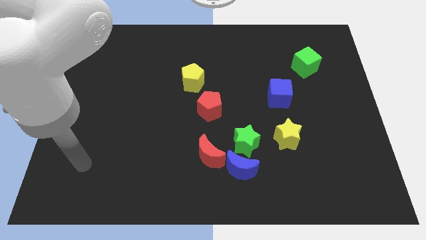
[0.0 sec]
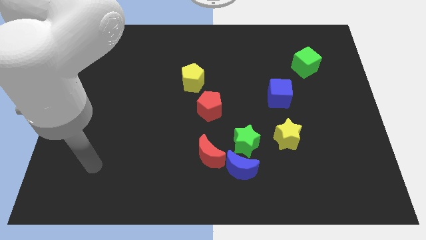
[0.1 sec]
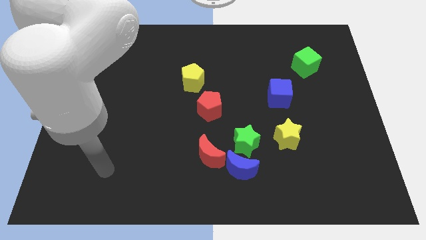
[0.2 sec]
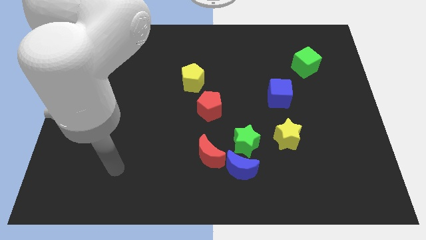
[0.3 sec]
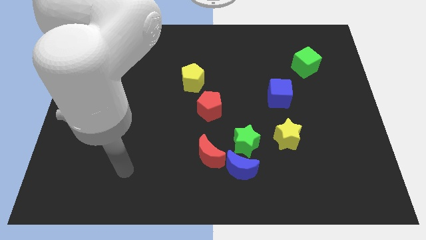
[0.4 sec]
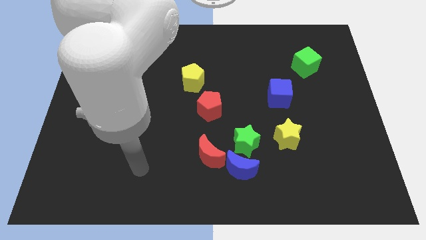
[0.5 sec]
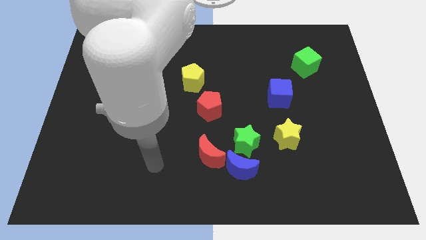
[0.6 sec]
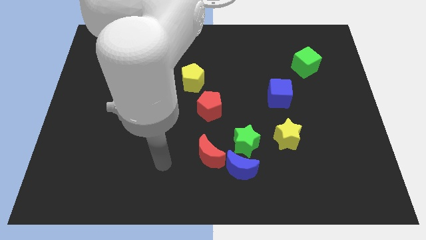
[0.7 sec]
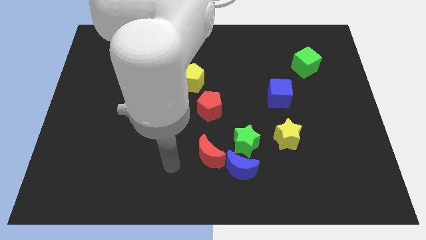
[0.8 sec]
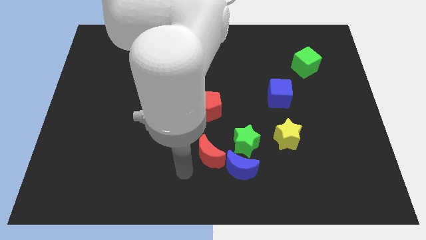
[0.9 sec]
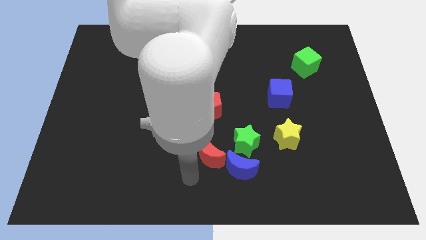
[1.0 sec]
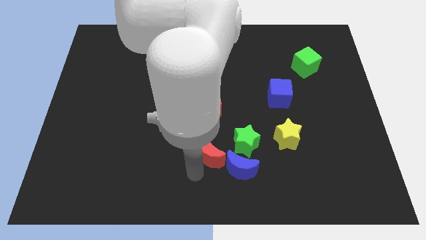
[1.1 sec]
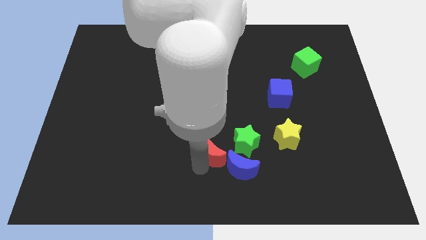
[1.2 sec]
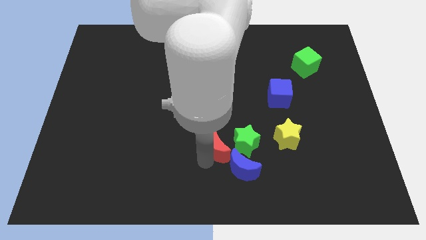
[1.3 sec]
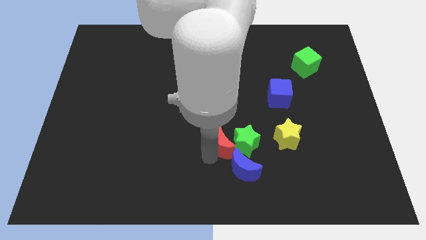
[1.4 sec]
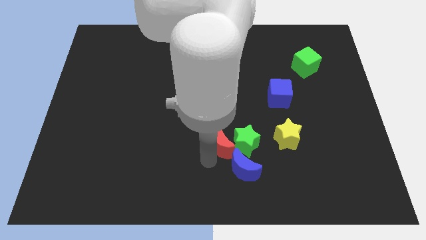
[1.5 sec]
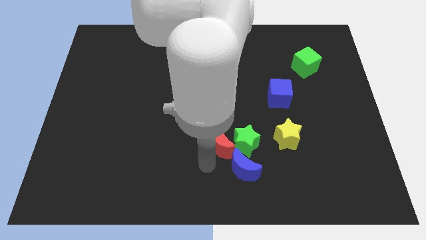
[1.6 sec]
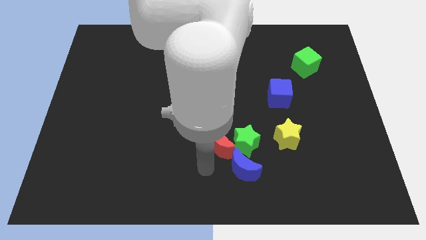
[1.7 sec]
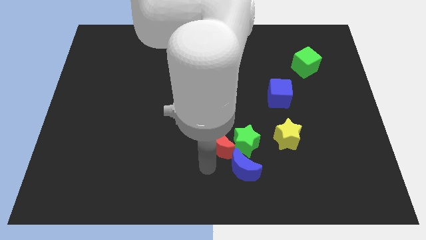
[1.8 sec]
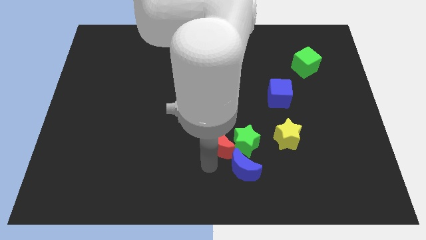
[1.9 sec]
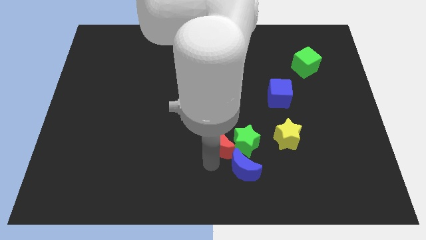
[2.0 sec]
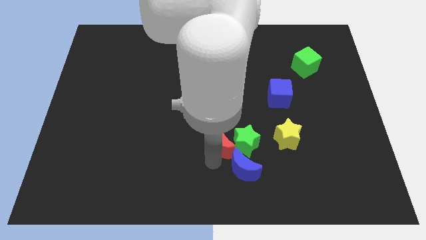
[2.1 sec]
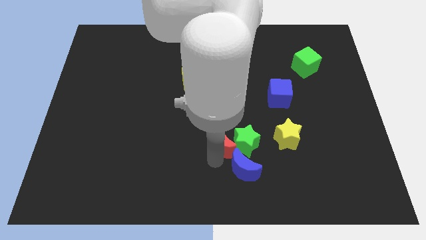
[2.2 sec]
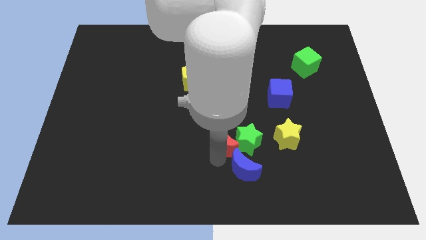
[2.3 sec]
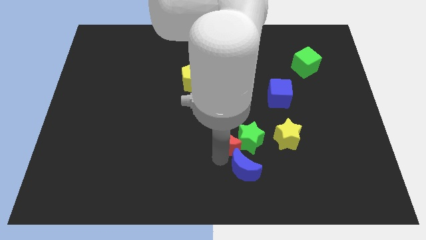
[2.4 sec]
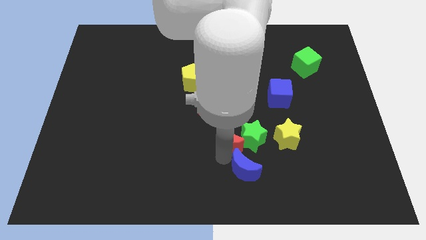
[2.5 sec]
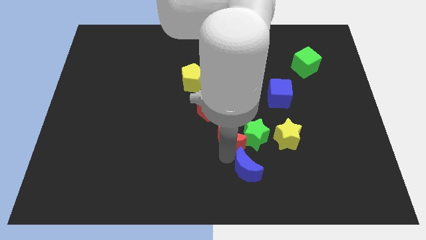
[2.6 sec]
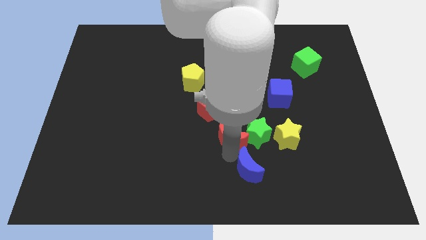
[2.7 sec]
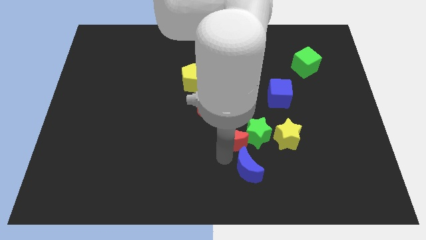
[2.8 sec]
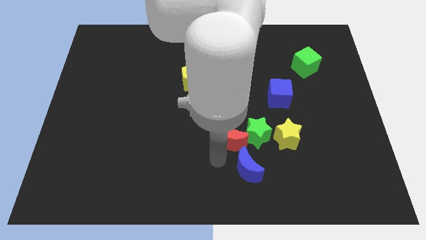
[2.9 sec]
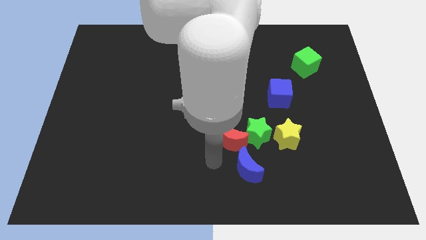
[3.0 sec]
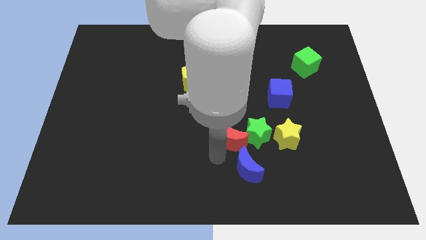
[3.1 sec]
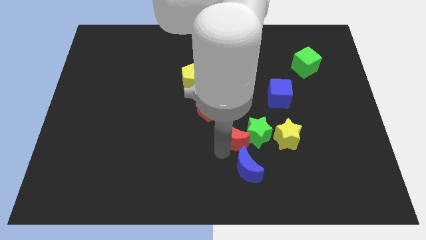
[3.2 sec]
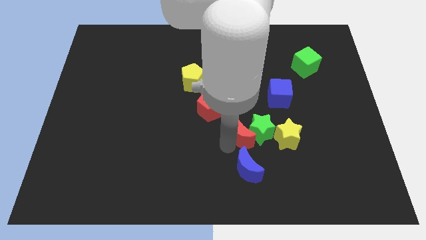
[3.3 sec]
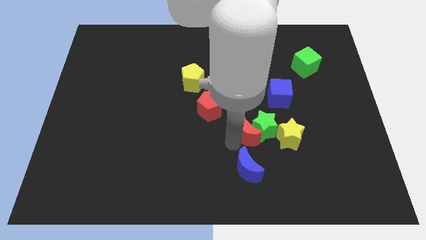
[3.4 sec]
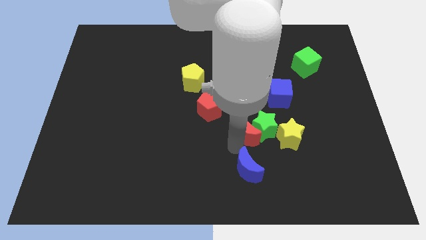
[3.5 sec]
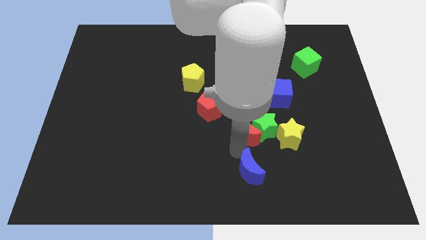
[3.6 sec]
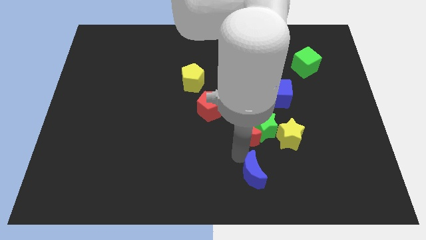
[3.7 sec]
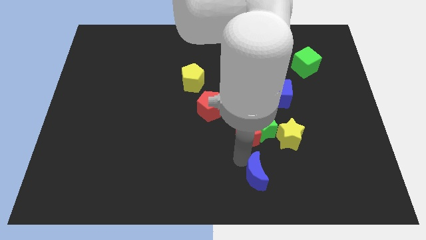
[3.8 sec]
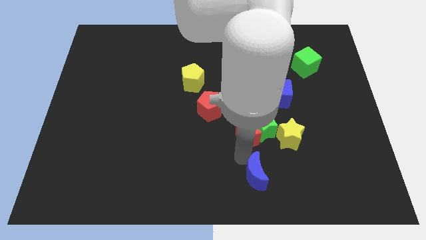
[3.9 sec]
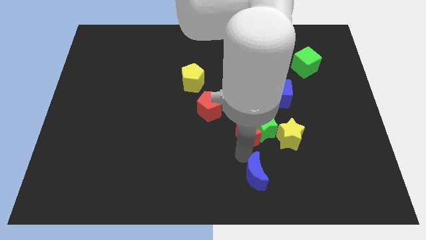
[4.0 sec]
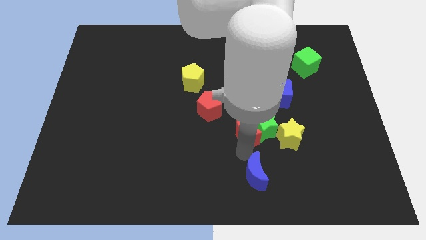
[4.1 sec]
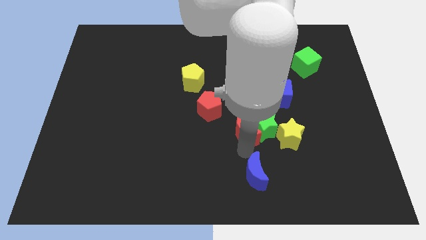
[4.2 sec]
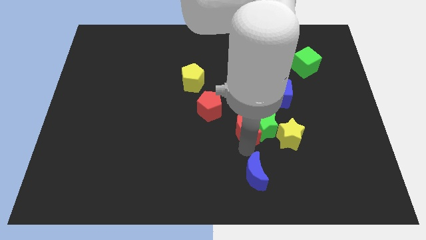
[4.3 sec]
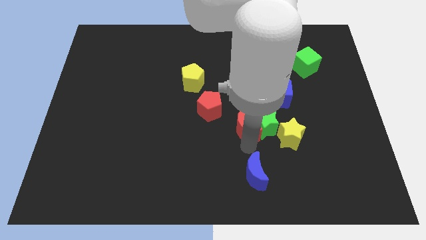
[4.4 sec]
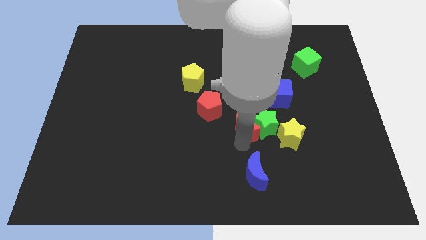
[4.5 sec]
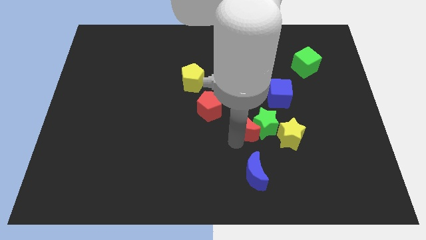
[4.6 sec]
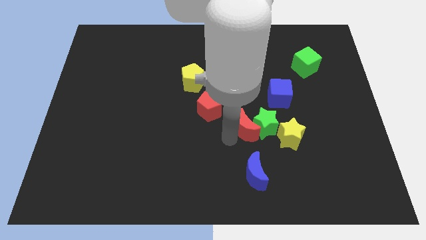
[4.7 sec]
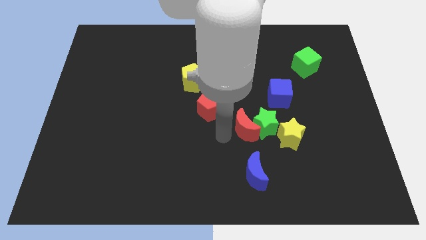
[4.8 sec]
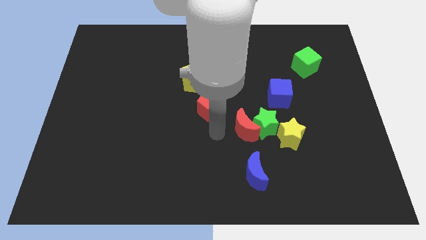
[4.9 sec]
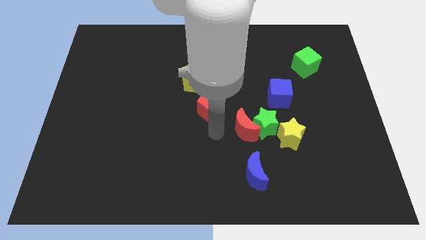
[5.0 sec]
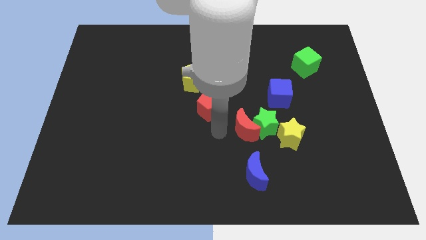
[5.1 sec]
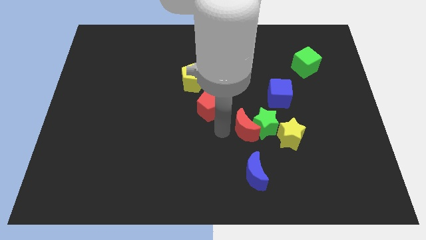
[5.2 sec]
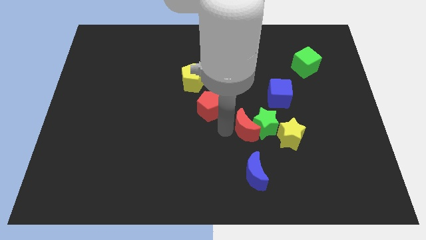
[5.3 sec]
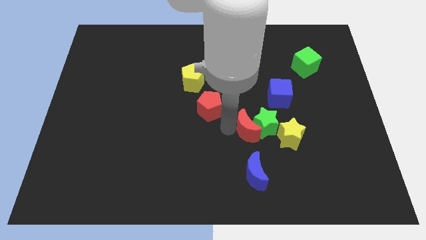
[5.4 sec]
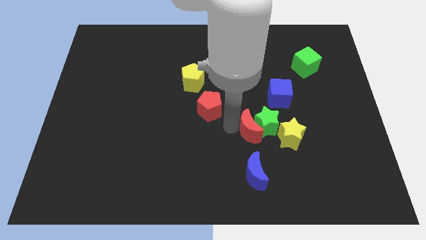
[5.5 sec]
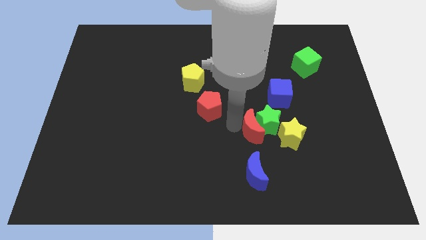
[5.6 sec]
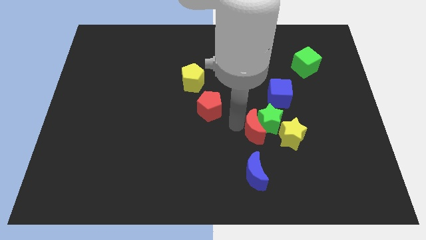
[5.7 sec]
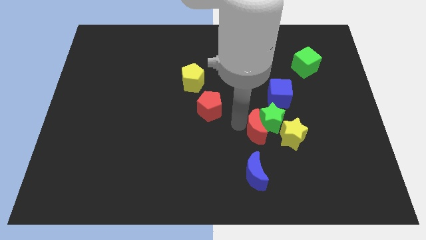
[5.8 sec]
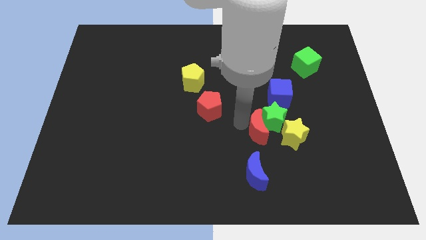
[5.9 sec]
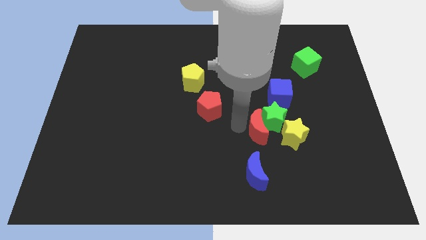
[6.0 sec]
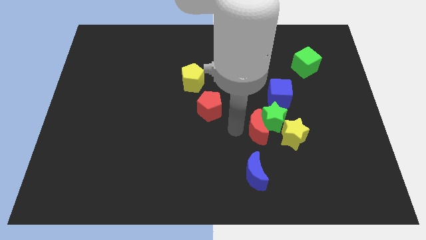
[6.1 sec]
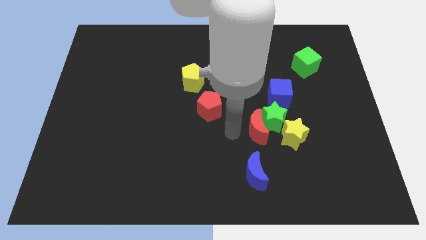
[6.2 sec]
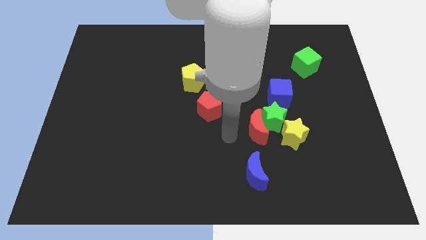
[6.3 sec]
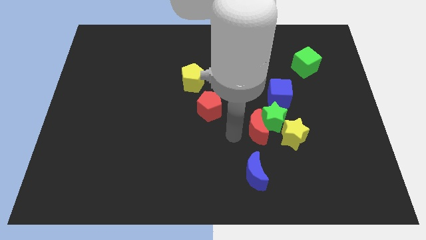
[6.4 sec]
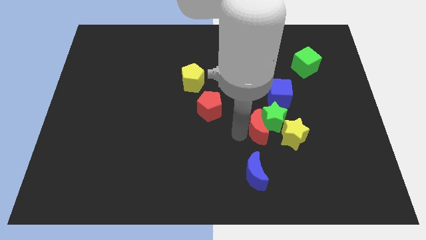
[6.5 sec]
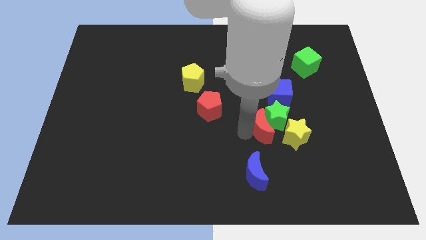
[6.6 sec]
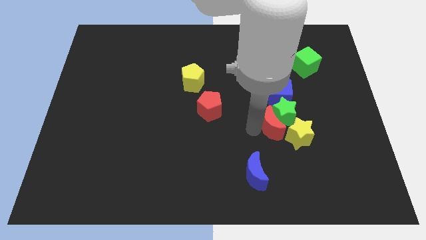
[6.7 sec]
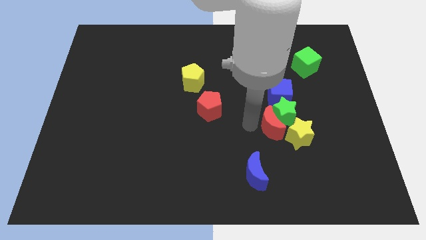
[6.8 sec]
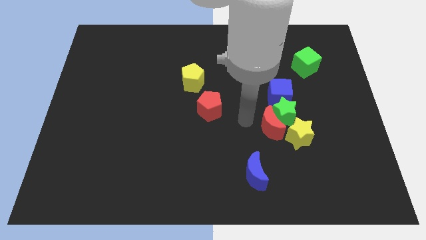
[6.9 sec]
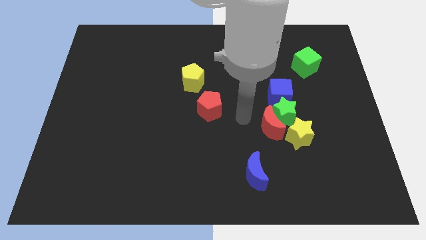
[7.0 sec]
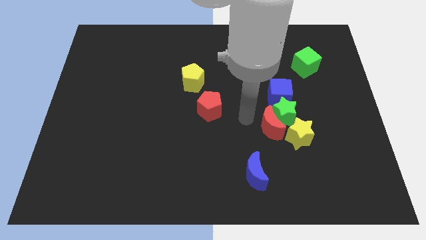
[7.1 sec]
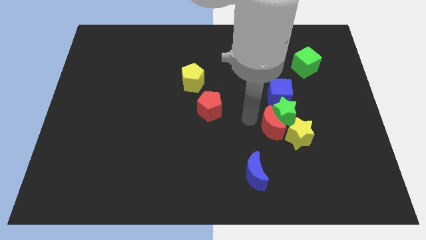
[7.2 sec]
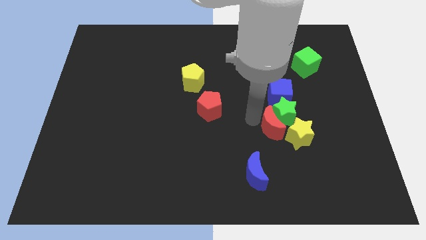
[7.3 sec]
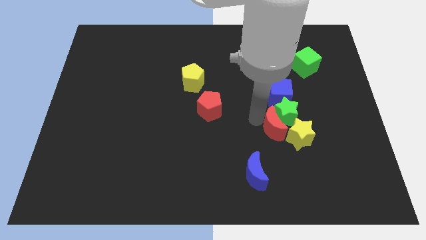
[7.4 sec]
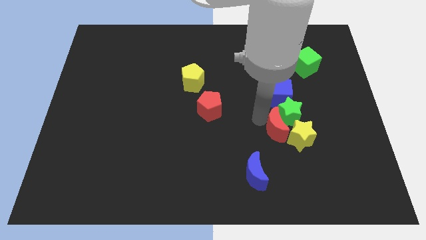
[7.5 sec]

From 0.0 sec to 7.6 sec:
slide the red moon towards the yellow star
